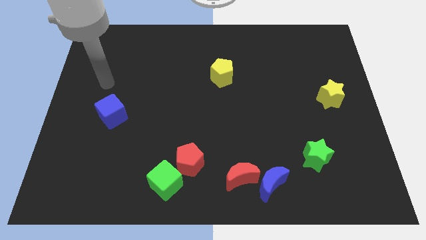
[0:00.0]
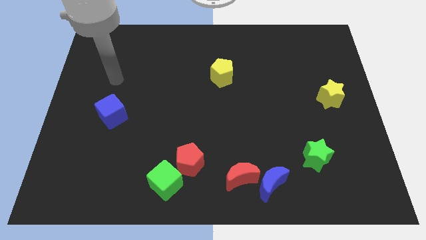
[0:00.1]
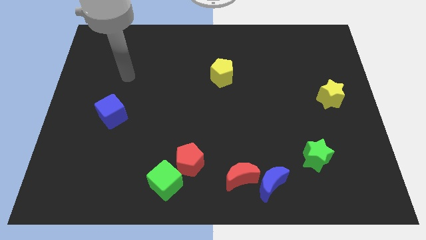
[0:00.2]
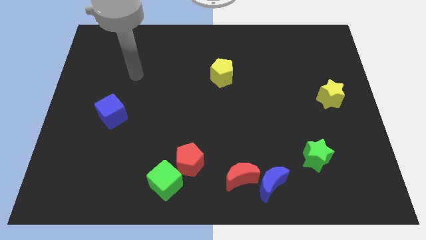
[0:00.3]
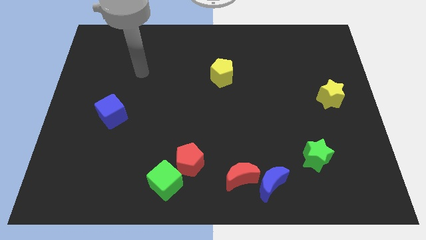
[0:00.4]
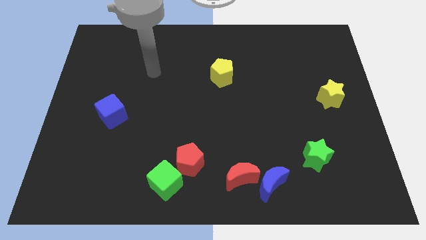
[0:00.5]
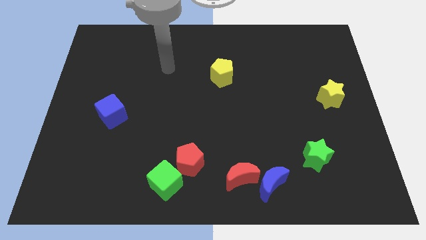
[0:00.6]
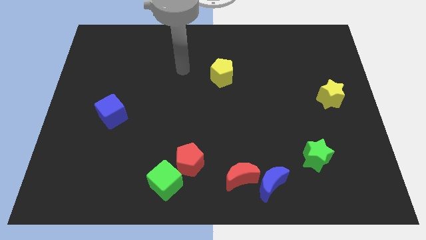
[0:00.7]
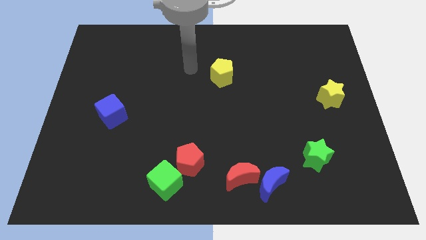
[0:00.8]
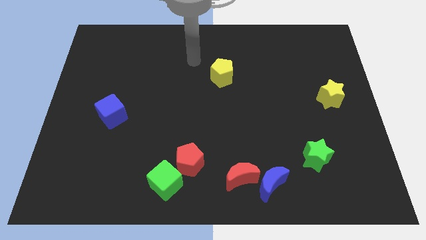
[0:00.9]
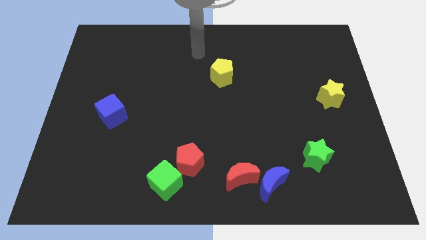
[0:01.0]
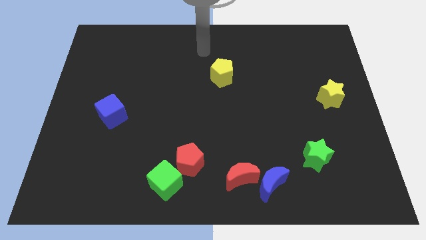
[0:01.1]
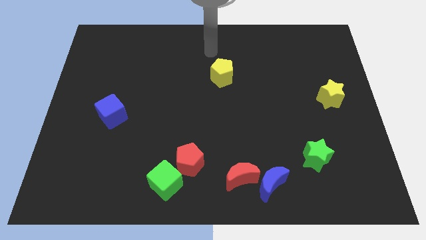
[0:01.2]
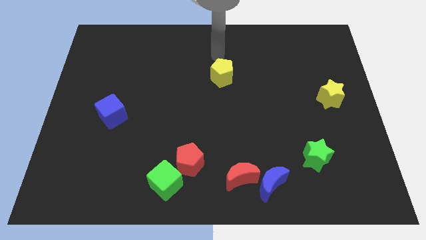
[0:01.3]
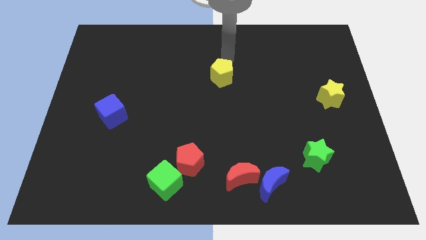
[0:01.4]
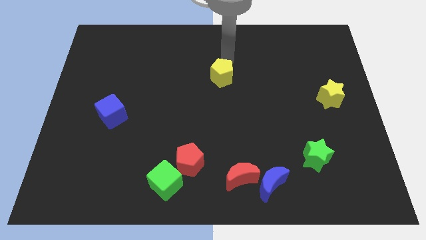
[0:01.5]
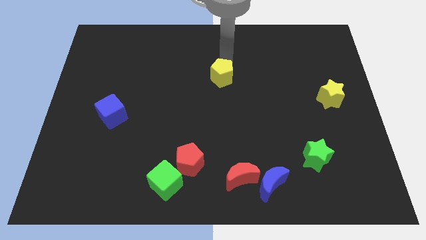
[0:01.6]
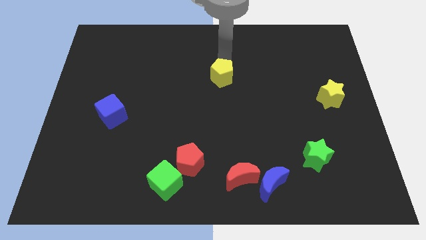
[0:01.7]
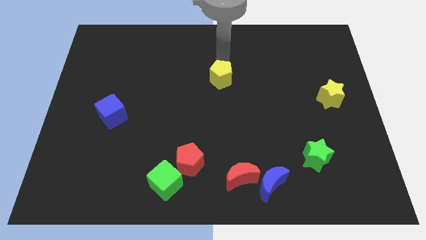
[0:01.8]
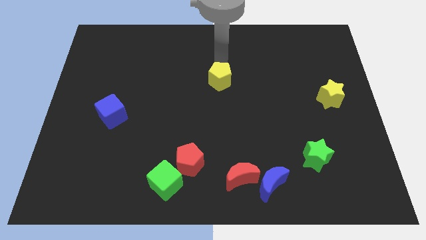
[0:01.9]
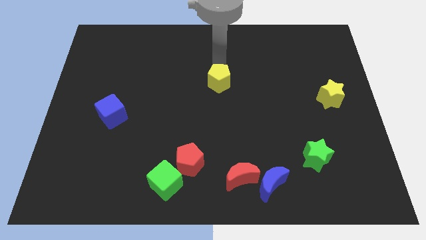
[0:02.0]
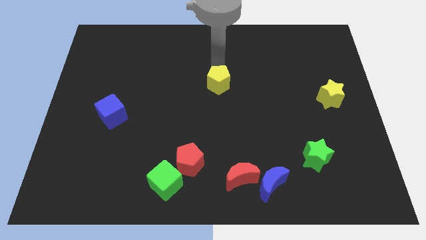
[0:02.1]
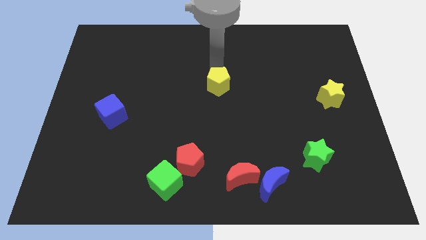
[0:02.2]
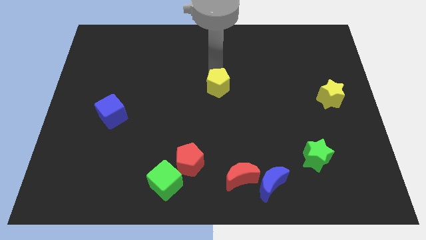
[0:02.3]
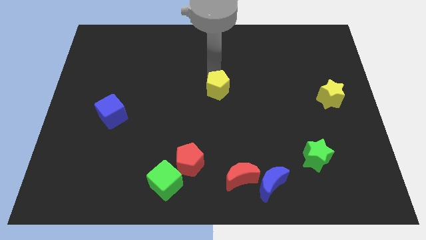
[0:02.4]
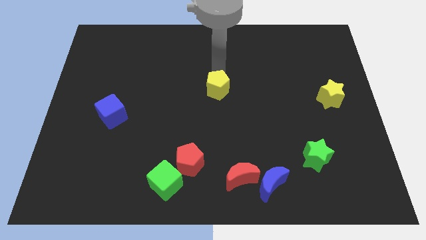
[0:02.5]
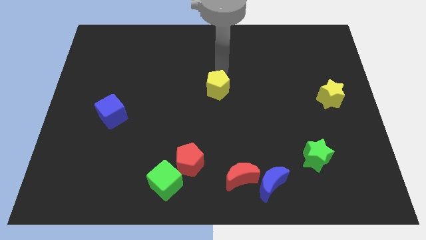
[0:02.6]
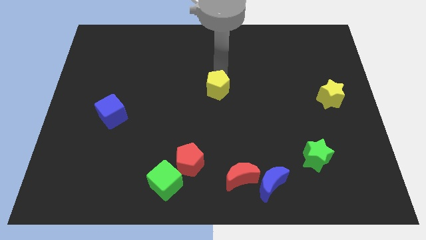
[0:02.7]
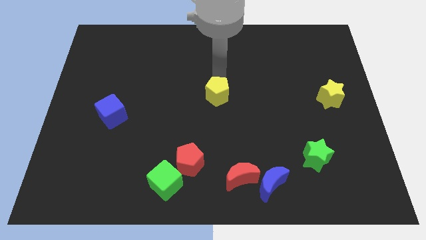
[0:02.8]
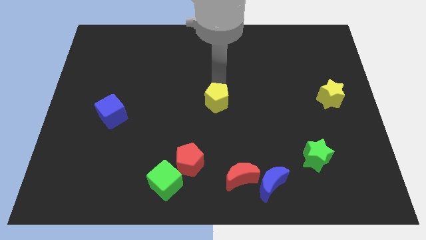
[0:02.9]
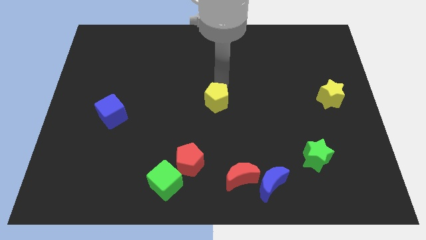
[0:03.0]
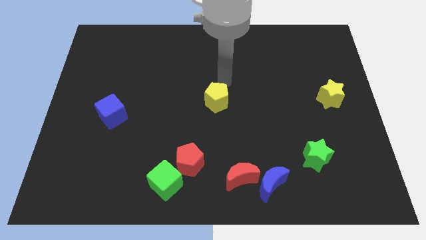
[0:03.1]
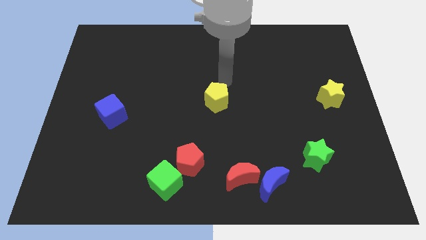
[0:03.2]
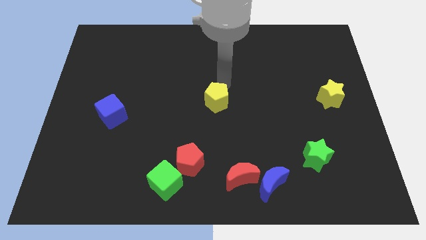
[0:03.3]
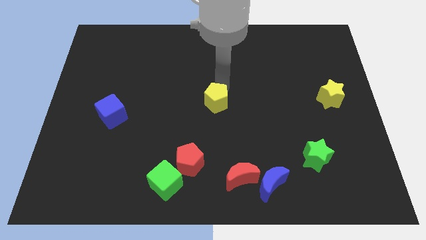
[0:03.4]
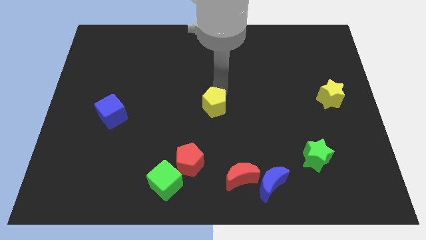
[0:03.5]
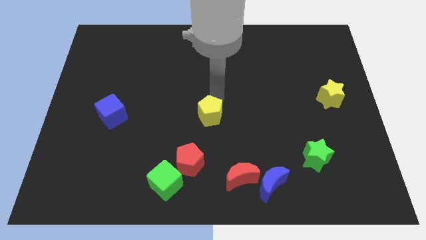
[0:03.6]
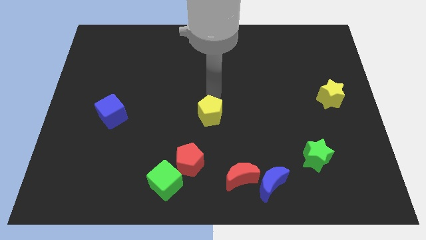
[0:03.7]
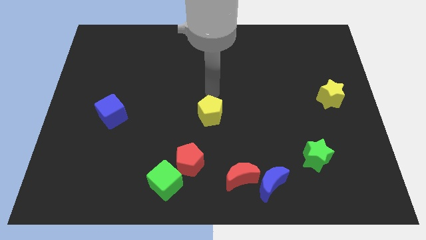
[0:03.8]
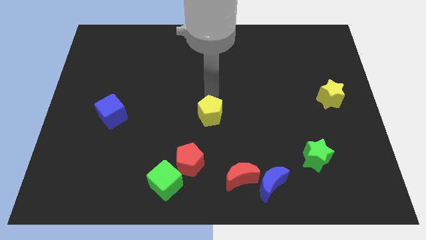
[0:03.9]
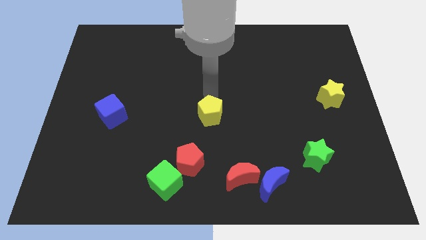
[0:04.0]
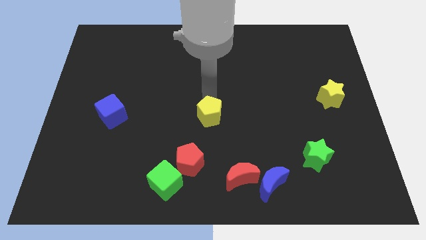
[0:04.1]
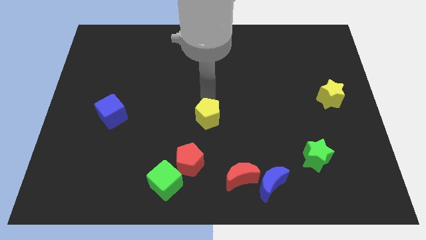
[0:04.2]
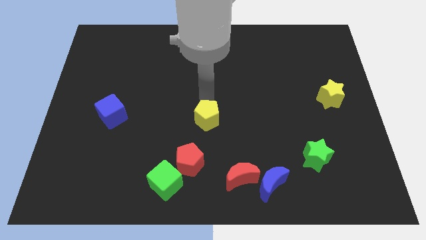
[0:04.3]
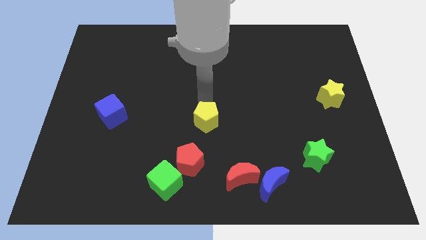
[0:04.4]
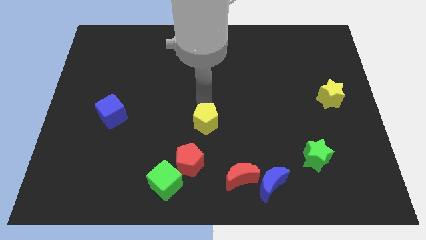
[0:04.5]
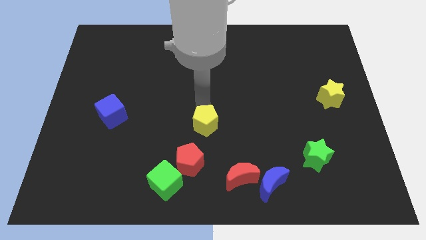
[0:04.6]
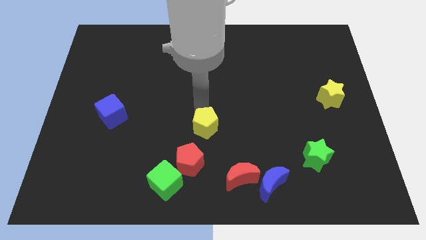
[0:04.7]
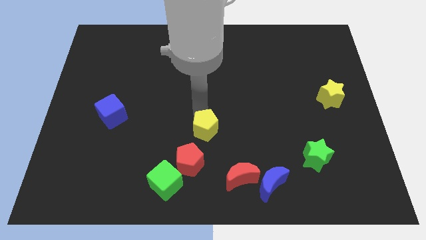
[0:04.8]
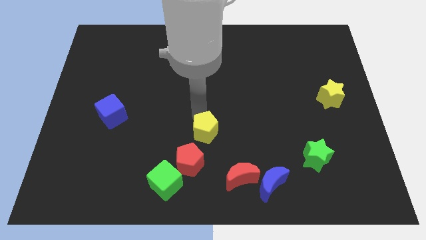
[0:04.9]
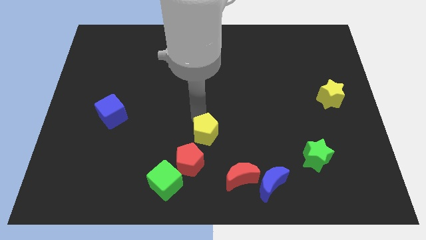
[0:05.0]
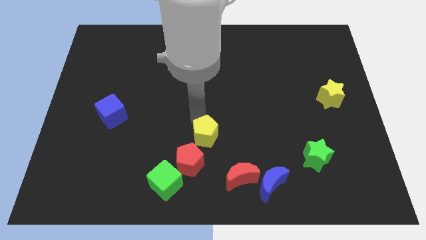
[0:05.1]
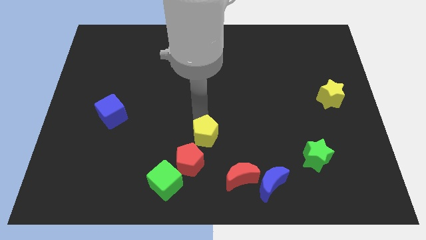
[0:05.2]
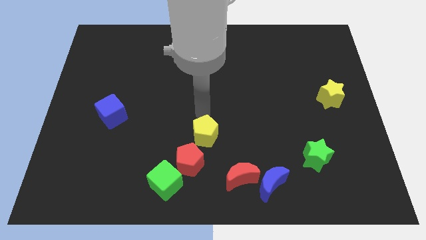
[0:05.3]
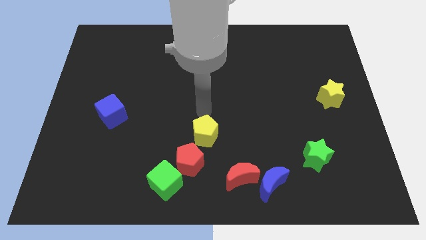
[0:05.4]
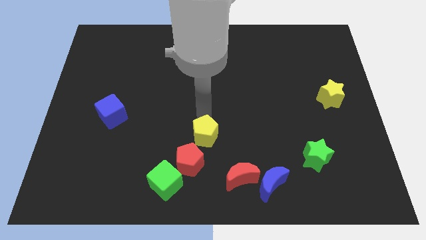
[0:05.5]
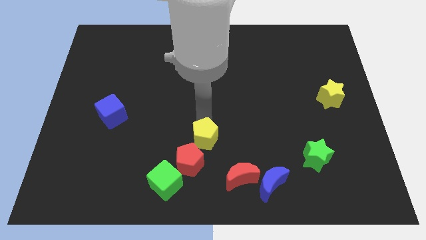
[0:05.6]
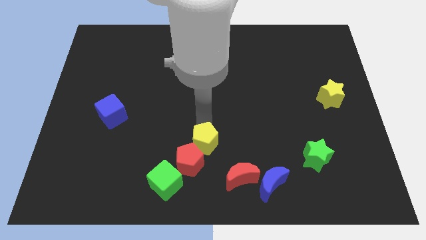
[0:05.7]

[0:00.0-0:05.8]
push the yellow pentagon to the top right side of the green cube

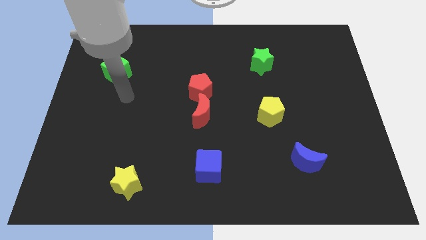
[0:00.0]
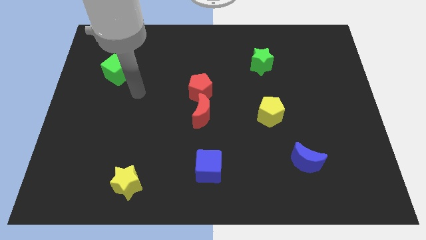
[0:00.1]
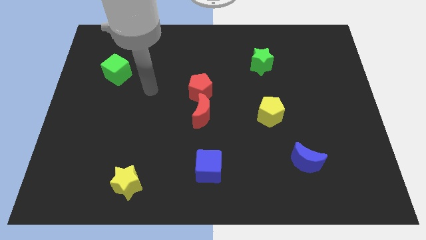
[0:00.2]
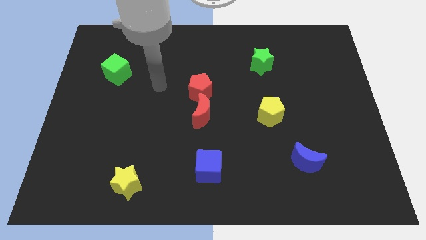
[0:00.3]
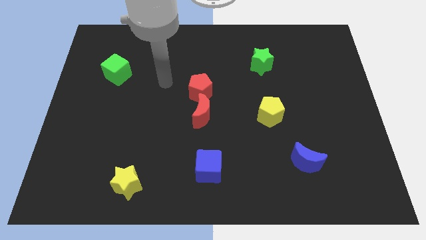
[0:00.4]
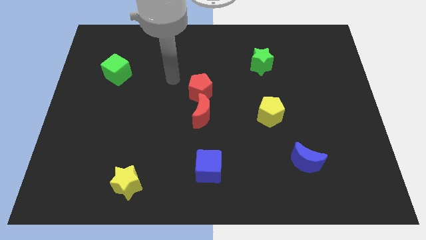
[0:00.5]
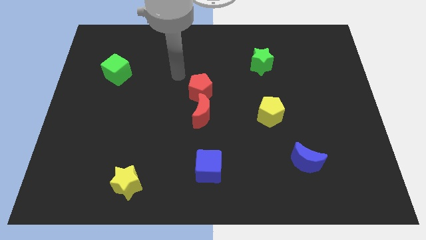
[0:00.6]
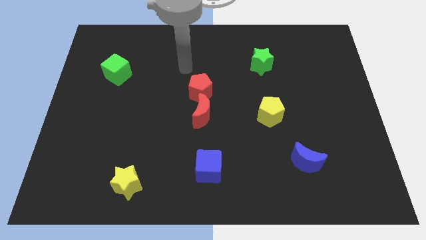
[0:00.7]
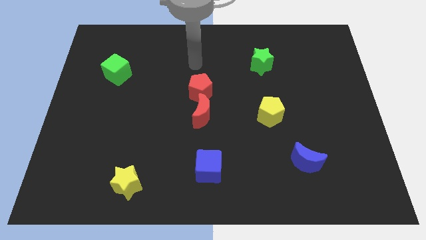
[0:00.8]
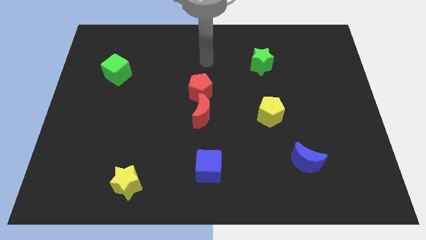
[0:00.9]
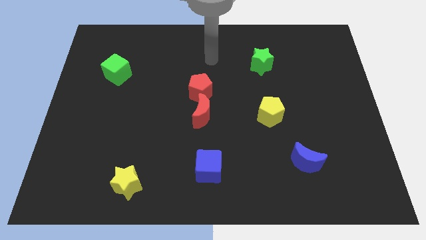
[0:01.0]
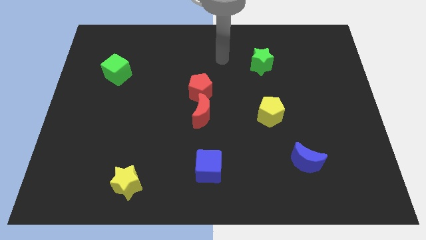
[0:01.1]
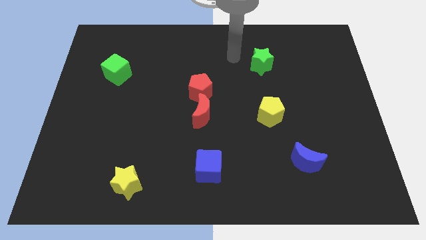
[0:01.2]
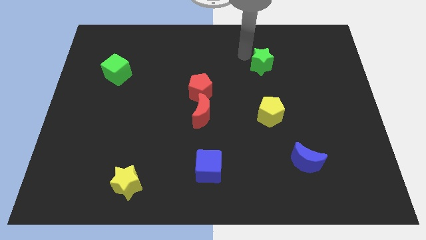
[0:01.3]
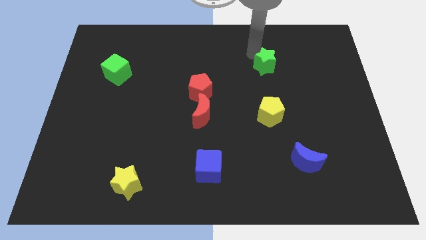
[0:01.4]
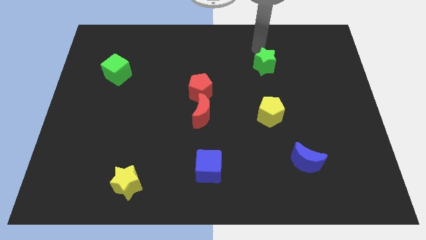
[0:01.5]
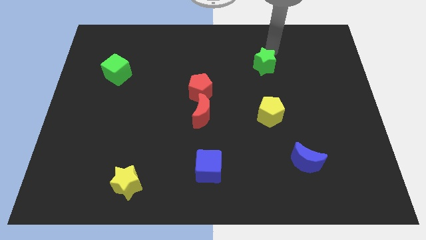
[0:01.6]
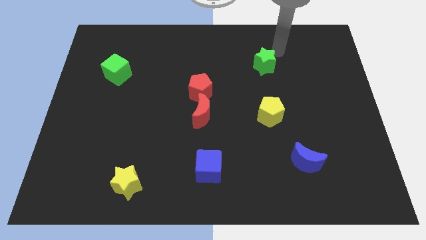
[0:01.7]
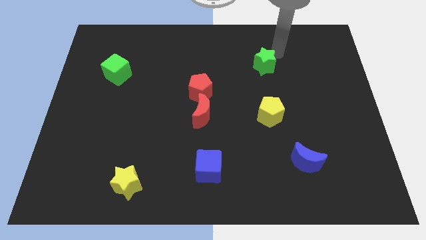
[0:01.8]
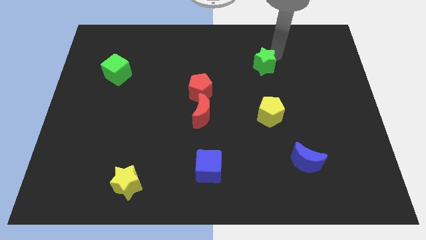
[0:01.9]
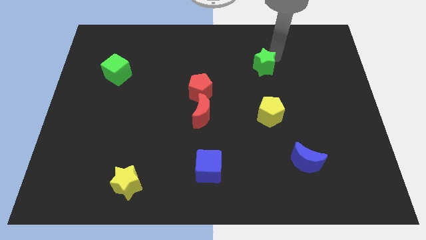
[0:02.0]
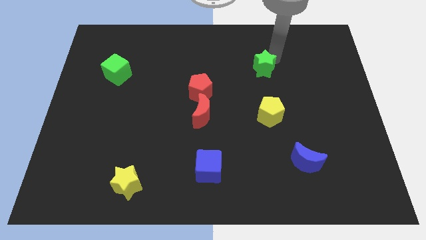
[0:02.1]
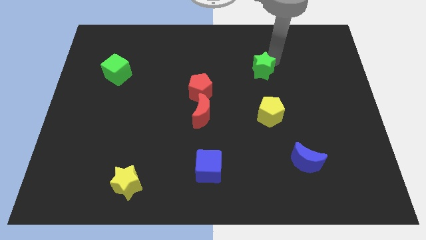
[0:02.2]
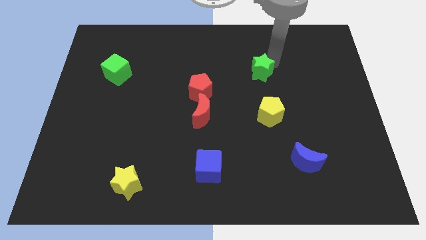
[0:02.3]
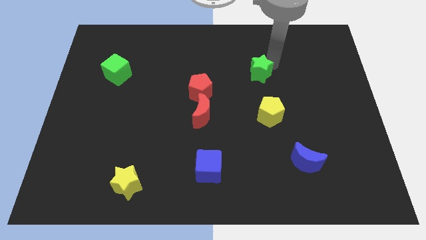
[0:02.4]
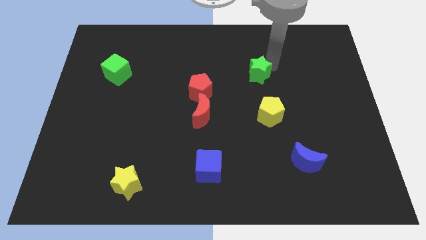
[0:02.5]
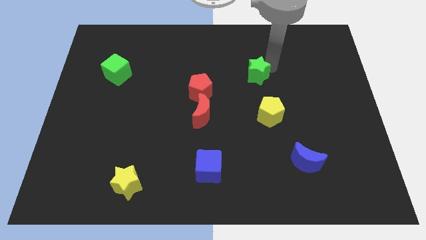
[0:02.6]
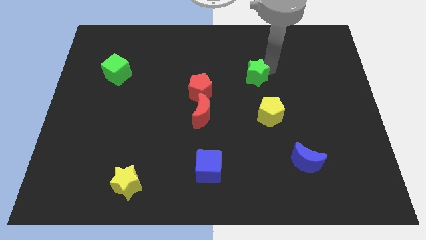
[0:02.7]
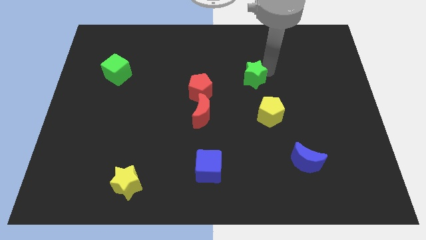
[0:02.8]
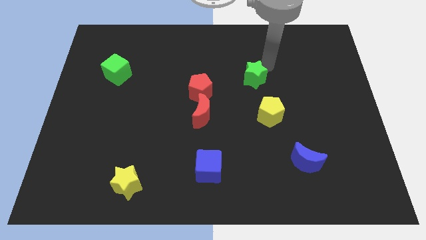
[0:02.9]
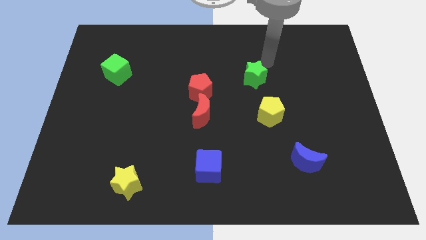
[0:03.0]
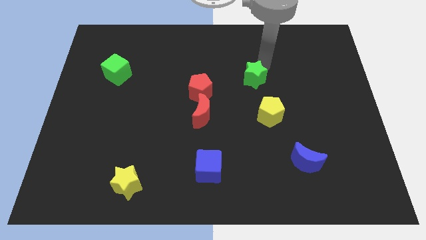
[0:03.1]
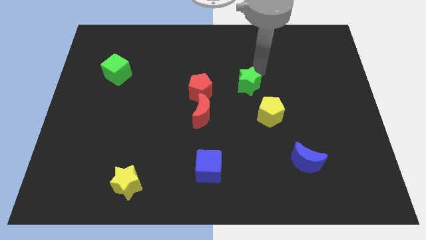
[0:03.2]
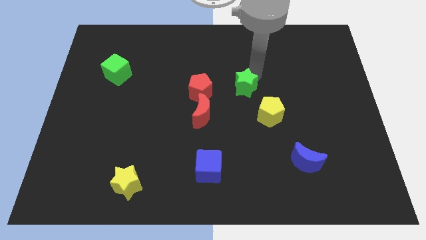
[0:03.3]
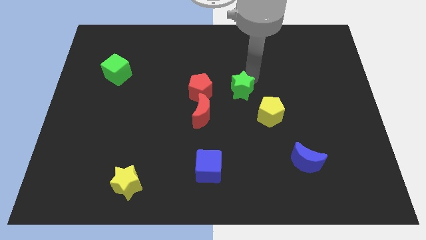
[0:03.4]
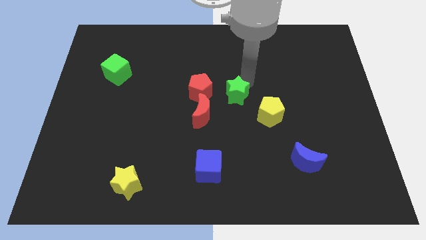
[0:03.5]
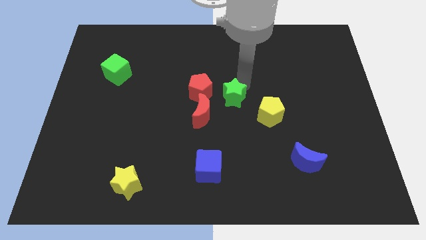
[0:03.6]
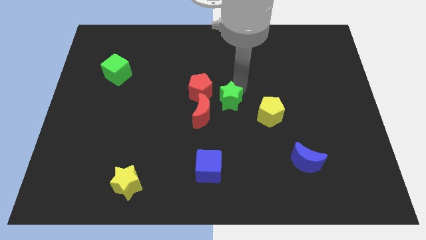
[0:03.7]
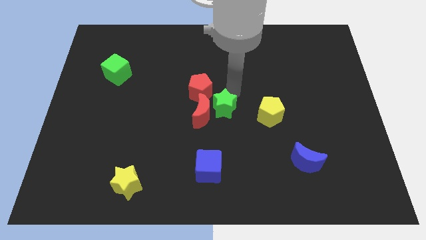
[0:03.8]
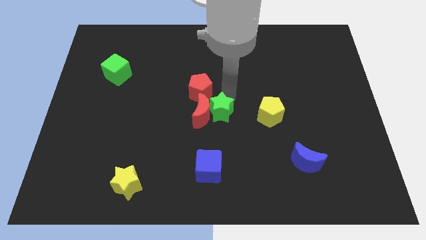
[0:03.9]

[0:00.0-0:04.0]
move the green star below the red pentagon
